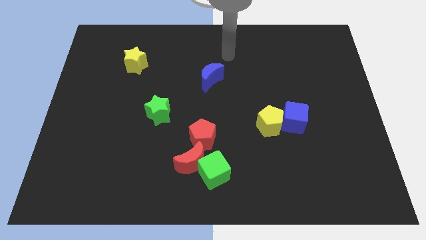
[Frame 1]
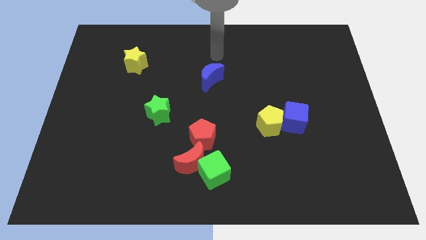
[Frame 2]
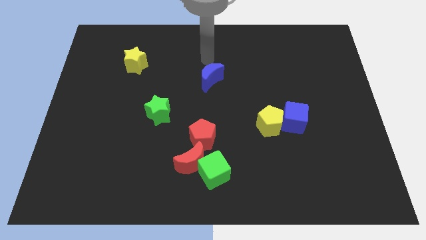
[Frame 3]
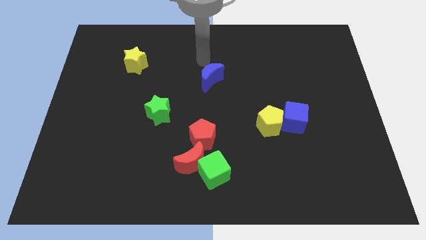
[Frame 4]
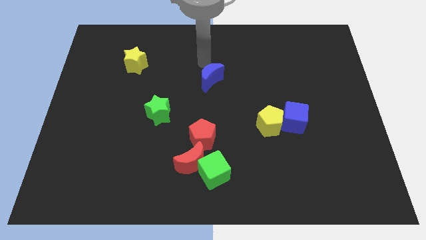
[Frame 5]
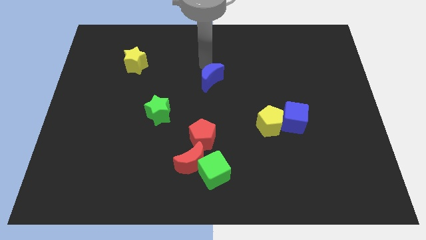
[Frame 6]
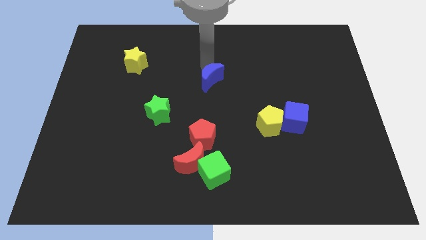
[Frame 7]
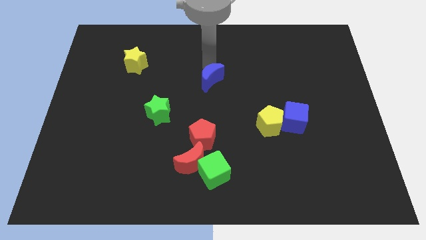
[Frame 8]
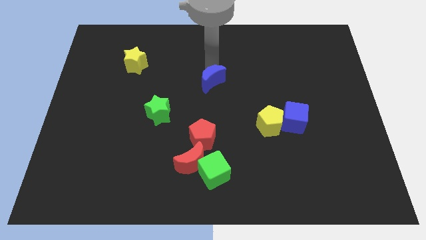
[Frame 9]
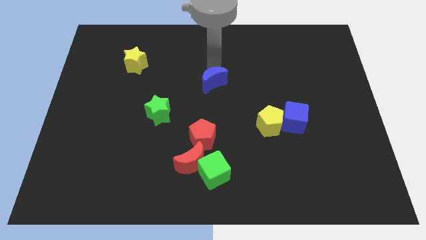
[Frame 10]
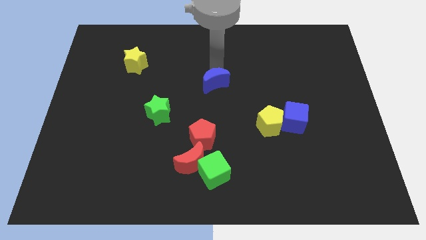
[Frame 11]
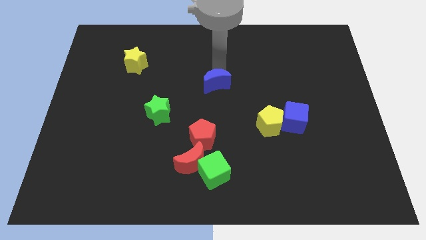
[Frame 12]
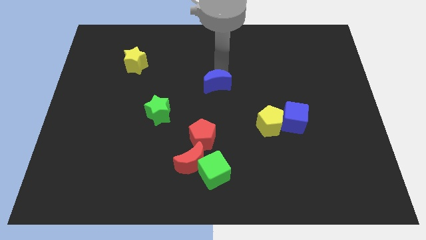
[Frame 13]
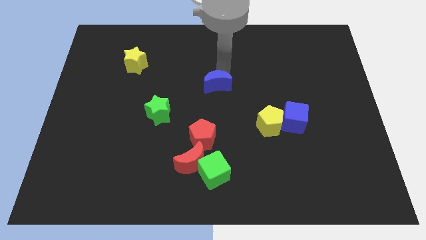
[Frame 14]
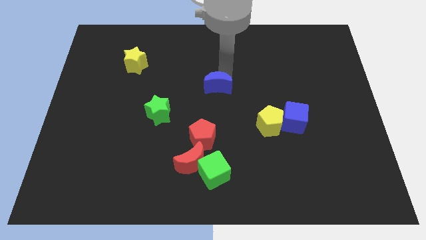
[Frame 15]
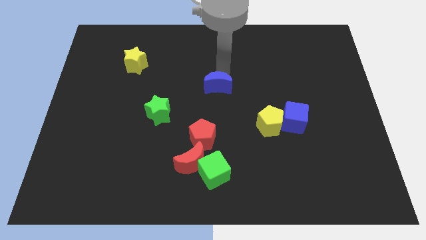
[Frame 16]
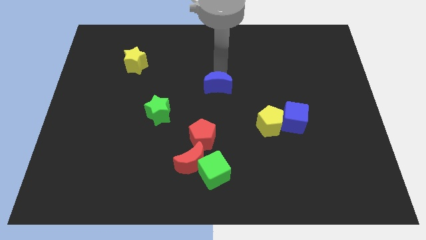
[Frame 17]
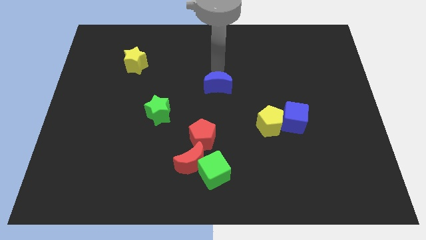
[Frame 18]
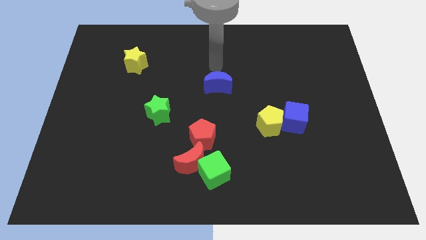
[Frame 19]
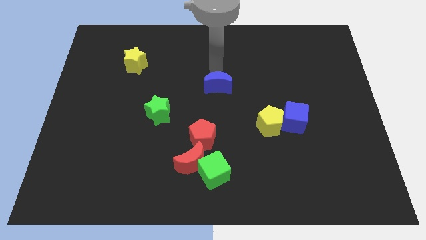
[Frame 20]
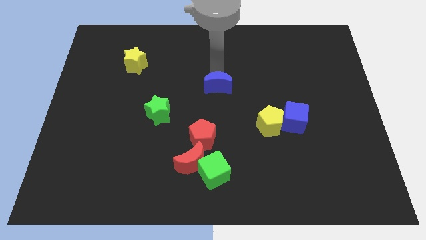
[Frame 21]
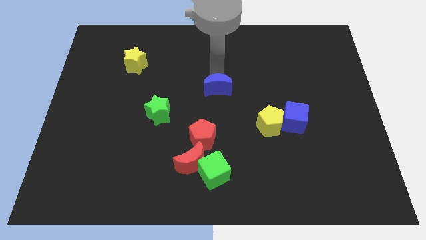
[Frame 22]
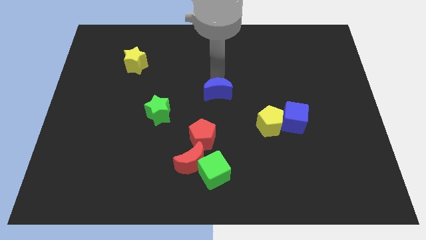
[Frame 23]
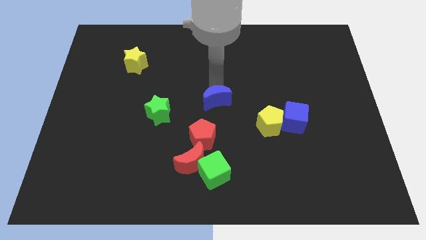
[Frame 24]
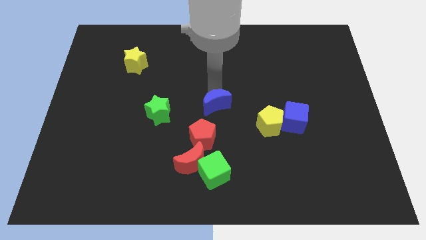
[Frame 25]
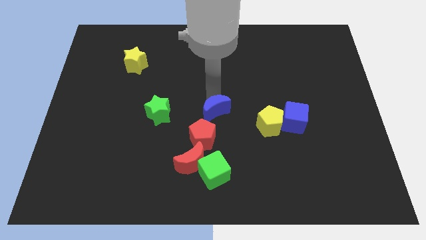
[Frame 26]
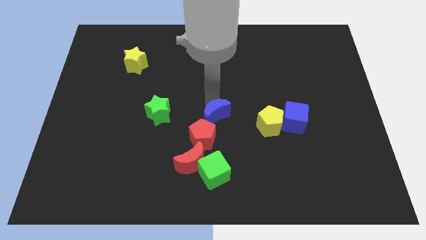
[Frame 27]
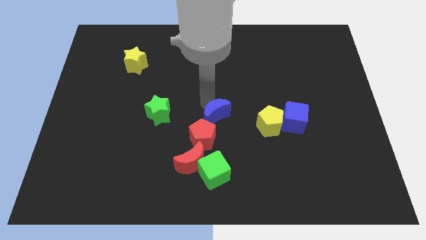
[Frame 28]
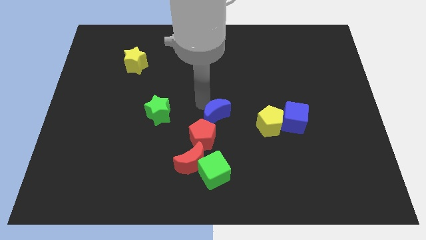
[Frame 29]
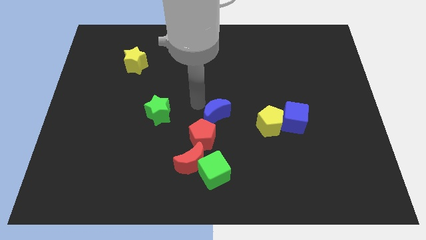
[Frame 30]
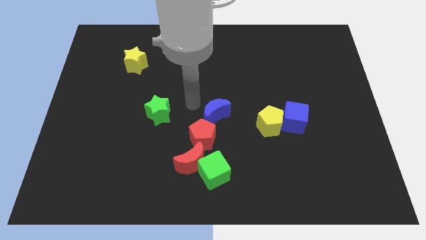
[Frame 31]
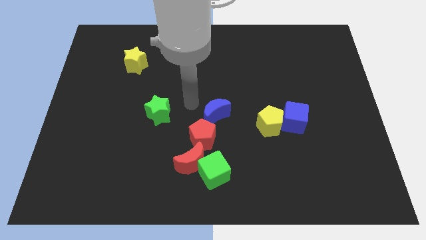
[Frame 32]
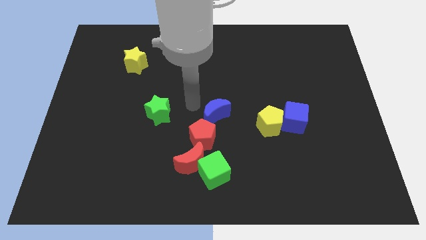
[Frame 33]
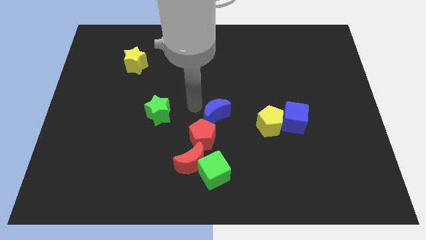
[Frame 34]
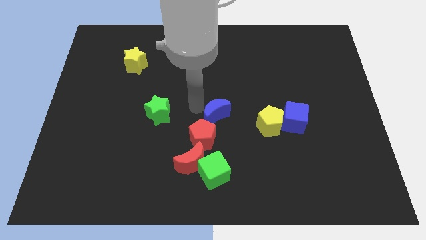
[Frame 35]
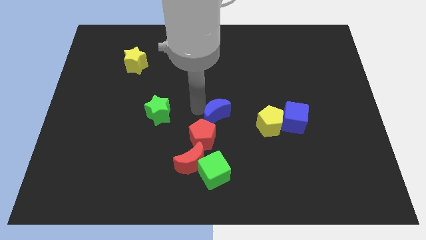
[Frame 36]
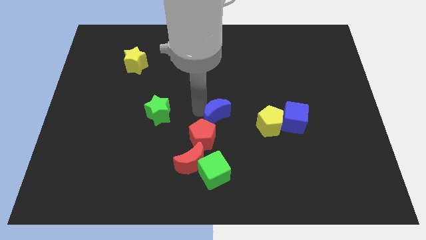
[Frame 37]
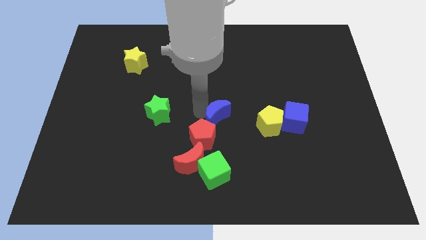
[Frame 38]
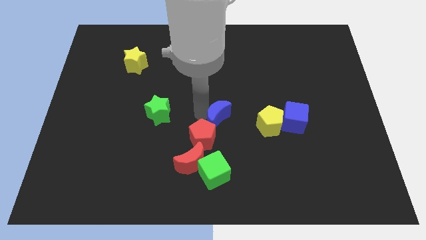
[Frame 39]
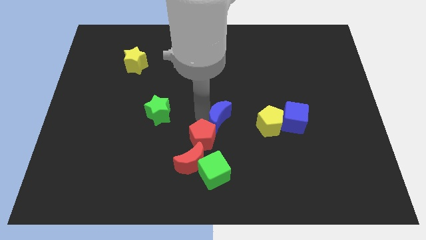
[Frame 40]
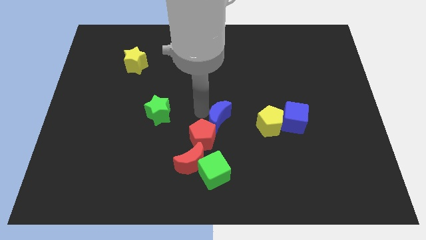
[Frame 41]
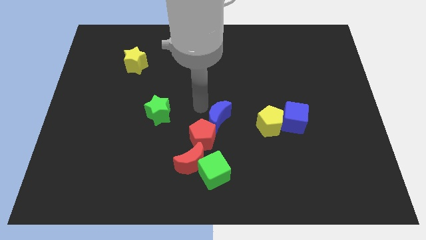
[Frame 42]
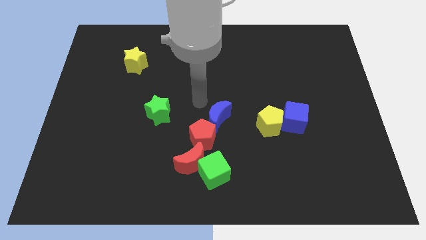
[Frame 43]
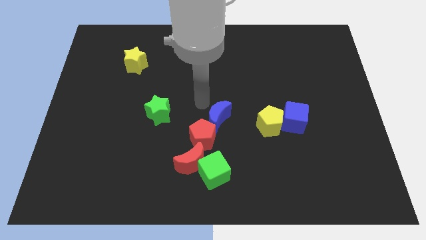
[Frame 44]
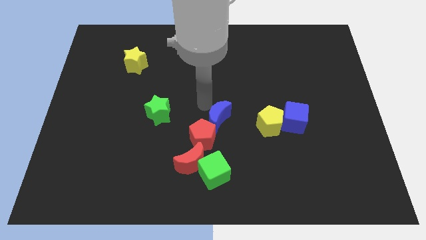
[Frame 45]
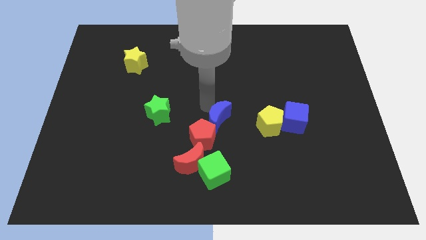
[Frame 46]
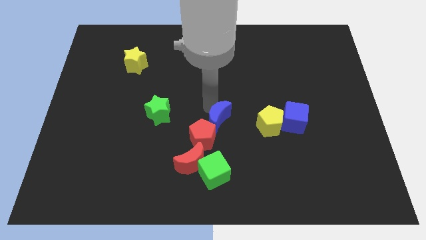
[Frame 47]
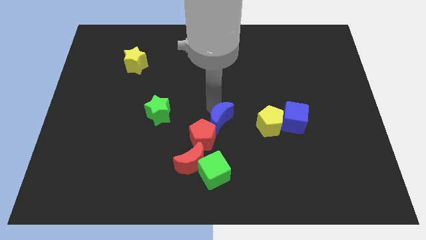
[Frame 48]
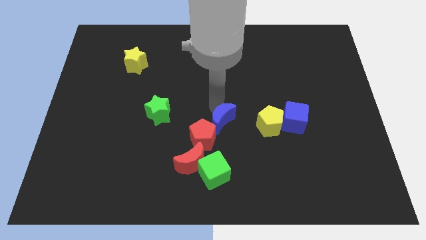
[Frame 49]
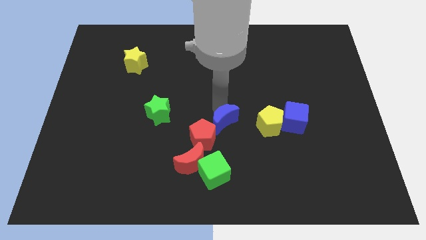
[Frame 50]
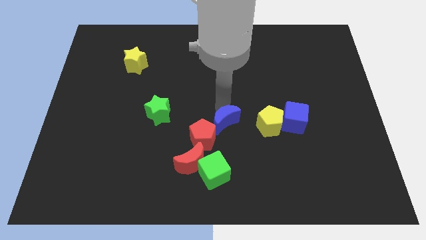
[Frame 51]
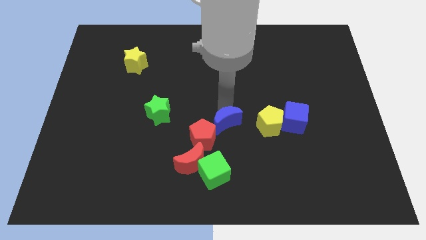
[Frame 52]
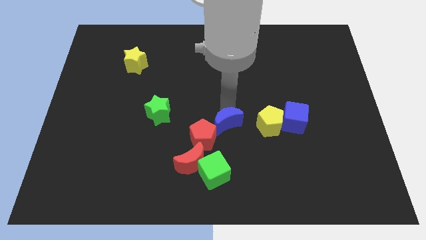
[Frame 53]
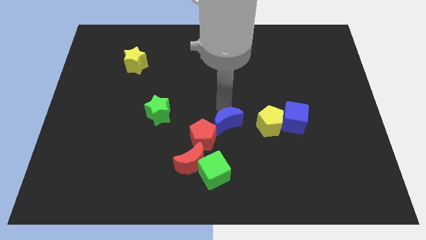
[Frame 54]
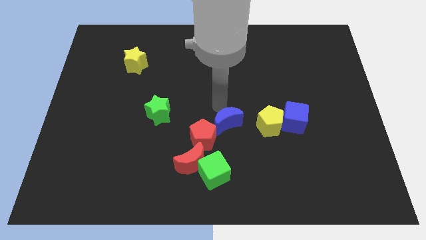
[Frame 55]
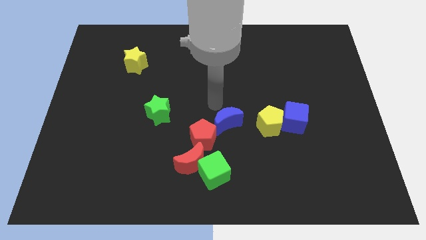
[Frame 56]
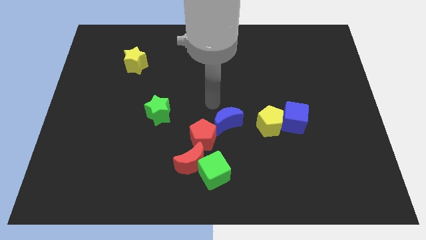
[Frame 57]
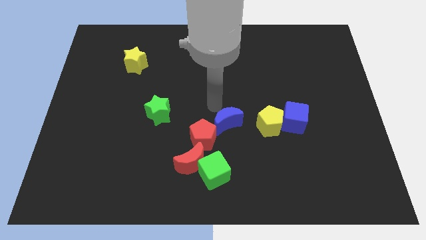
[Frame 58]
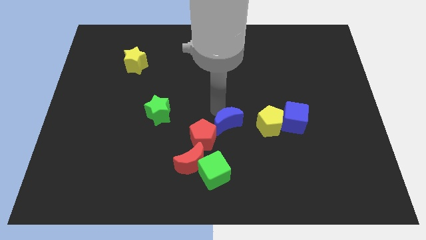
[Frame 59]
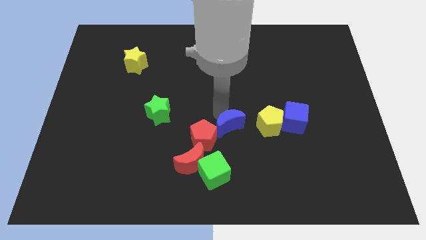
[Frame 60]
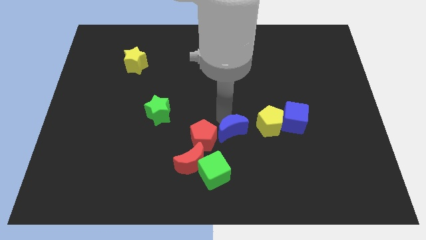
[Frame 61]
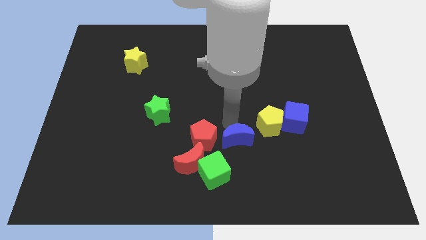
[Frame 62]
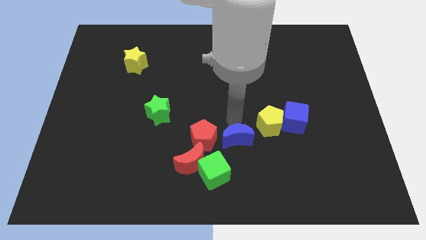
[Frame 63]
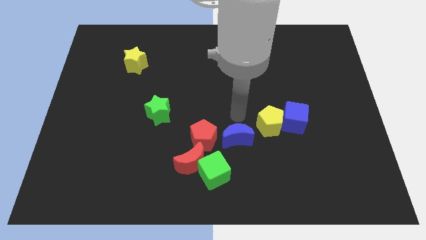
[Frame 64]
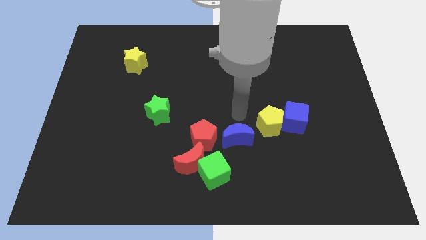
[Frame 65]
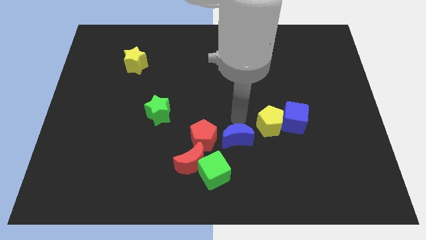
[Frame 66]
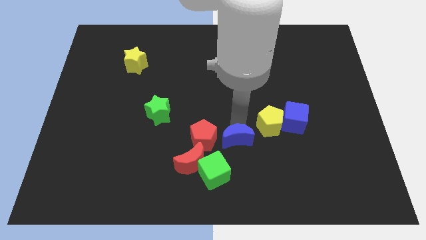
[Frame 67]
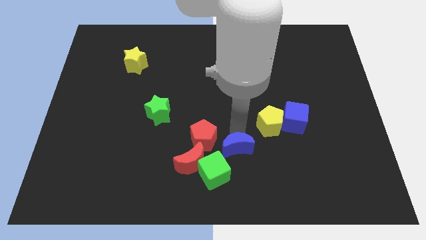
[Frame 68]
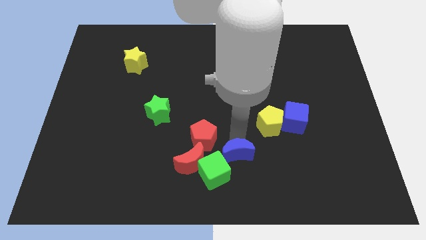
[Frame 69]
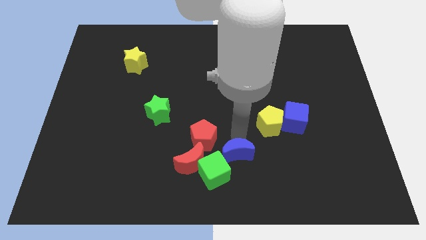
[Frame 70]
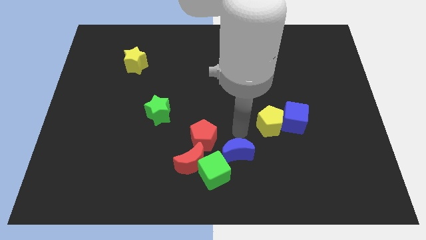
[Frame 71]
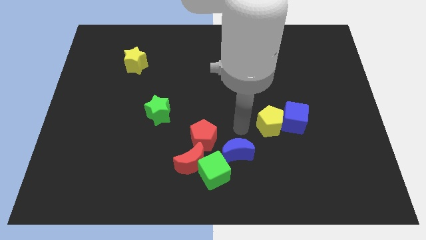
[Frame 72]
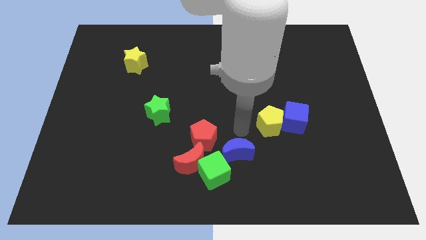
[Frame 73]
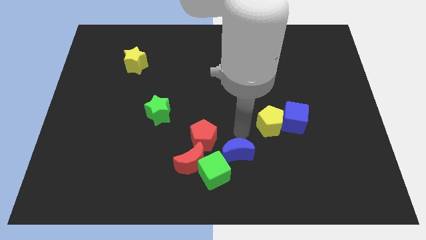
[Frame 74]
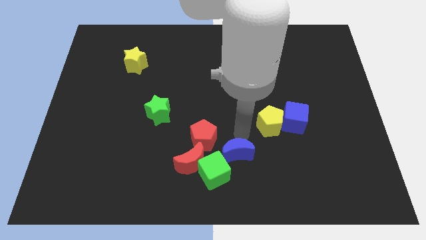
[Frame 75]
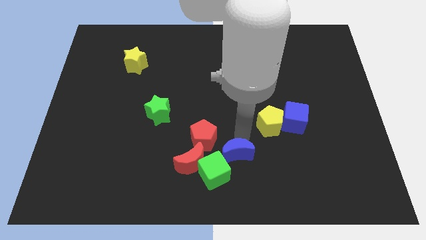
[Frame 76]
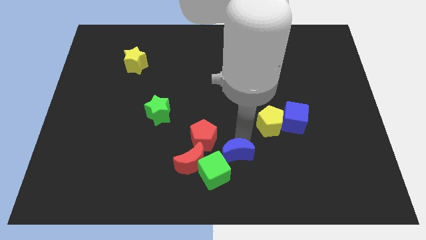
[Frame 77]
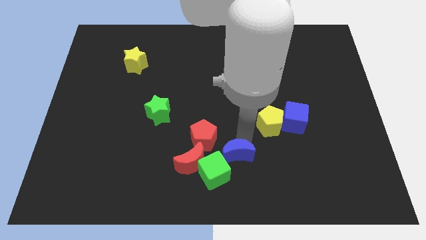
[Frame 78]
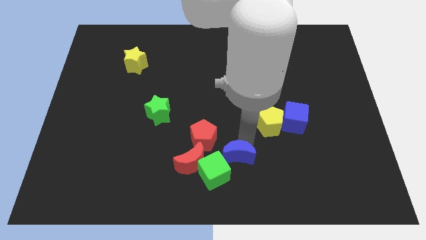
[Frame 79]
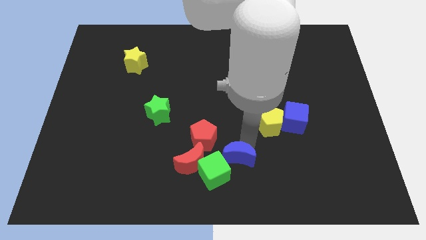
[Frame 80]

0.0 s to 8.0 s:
move the blue moon to the bottom
